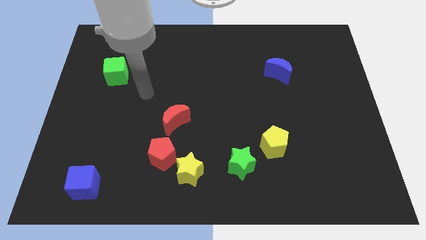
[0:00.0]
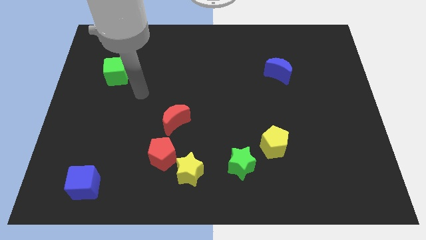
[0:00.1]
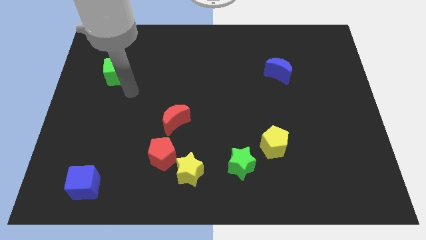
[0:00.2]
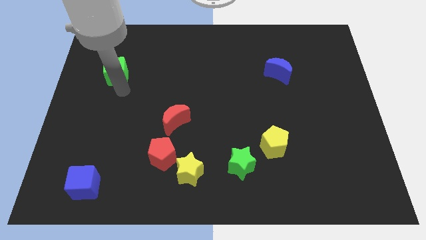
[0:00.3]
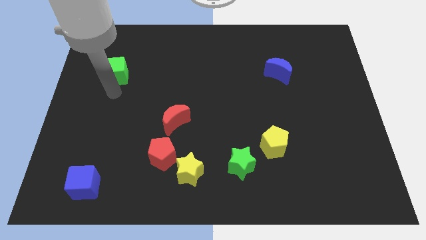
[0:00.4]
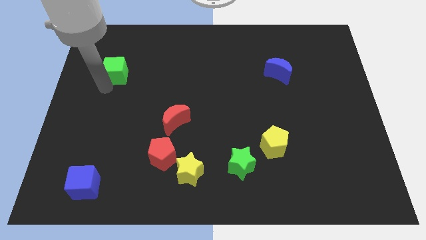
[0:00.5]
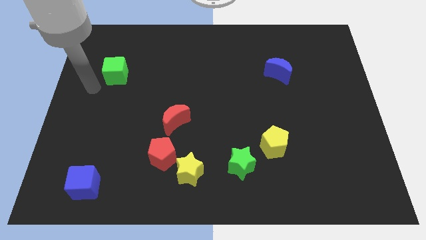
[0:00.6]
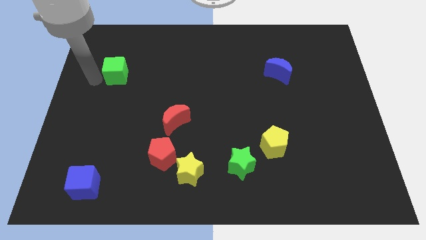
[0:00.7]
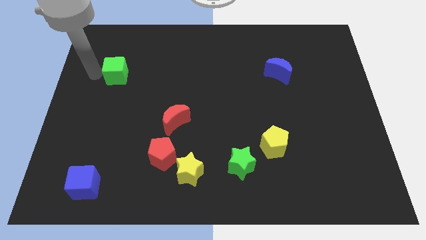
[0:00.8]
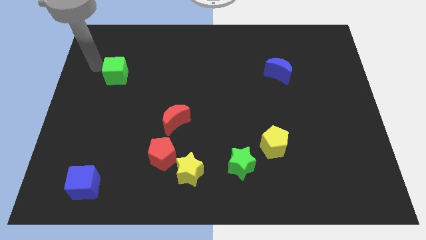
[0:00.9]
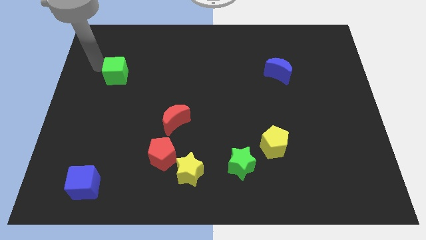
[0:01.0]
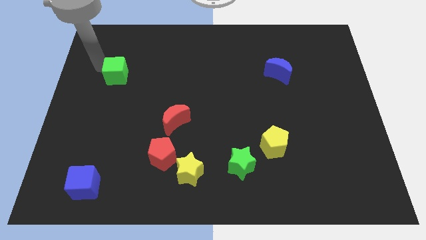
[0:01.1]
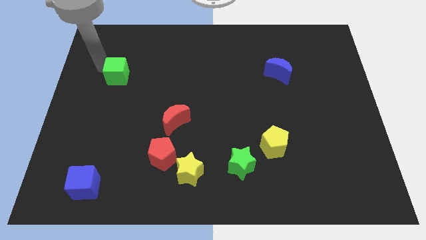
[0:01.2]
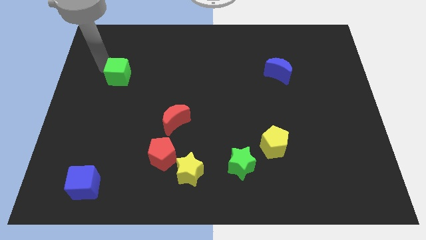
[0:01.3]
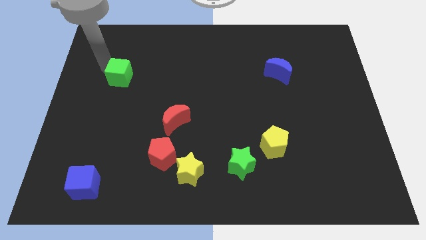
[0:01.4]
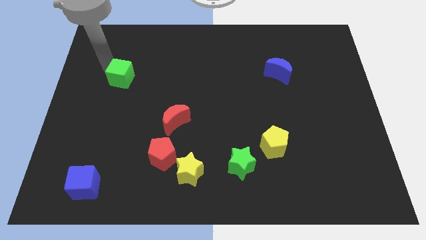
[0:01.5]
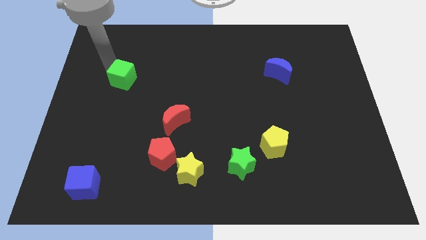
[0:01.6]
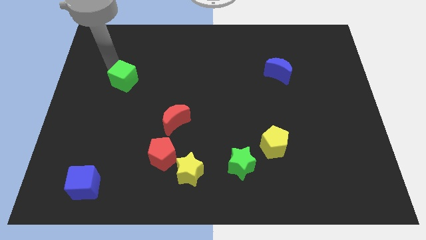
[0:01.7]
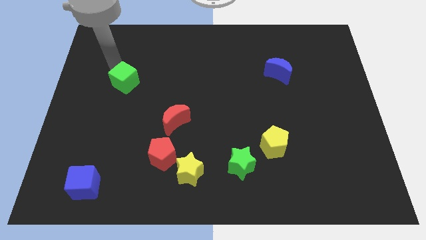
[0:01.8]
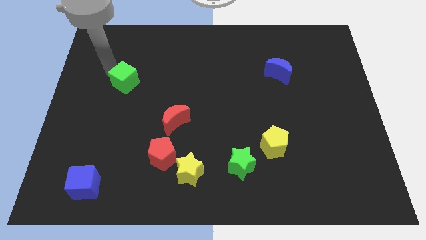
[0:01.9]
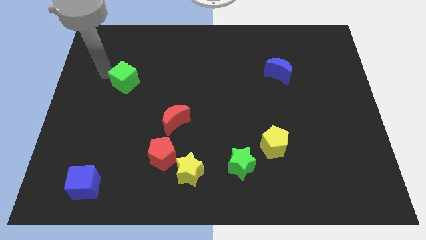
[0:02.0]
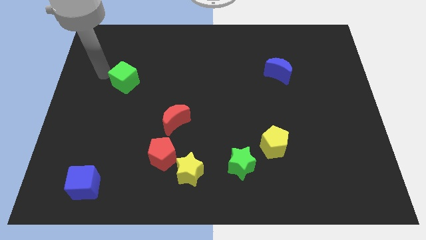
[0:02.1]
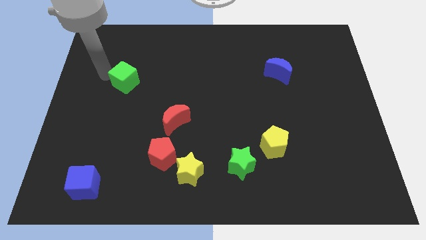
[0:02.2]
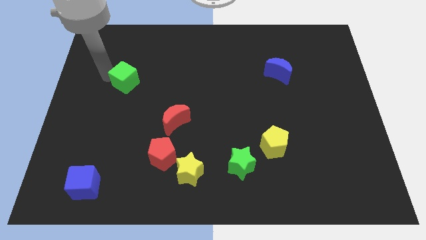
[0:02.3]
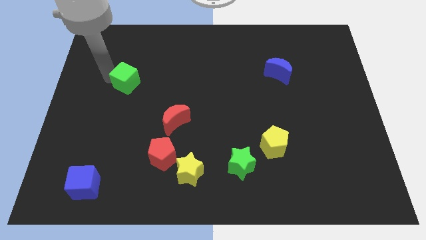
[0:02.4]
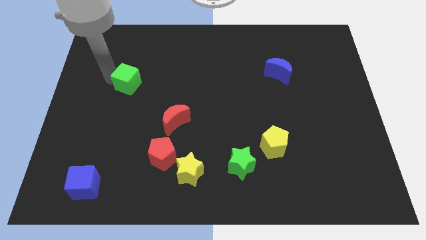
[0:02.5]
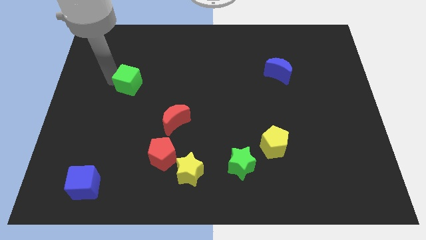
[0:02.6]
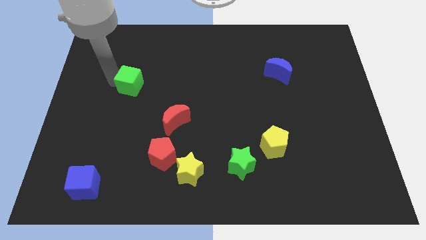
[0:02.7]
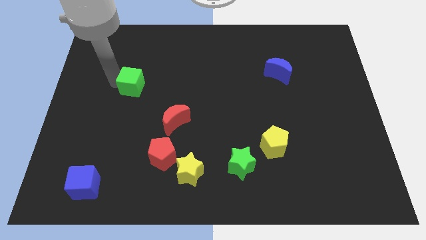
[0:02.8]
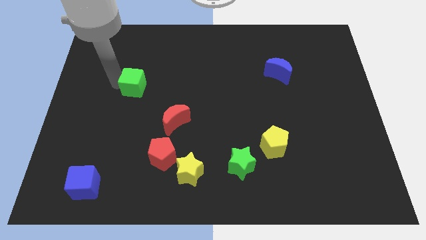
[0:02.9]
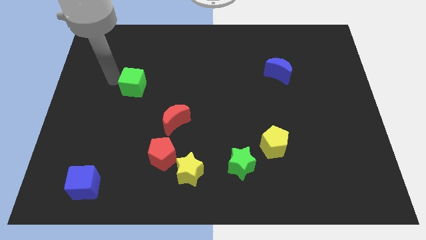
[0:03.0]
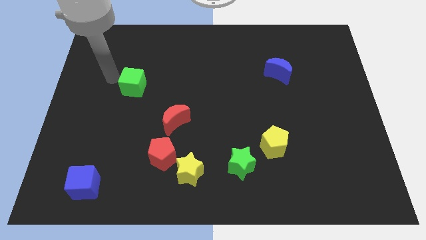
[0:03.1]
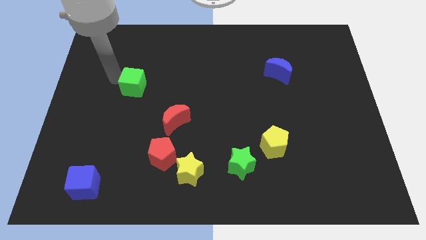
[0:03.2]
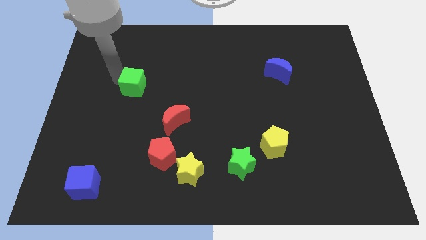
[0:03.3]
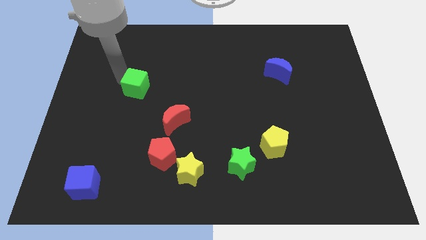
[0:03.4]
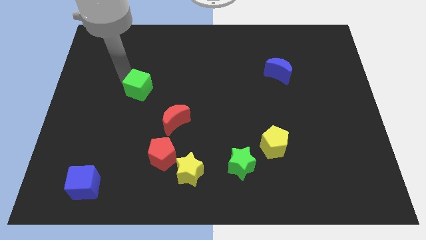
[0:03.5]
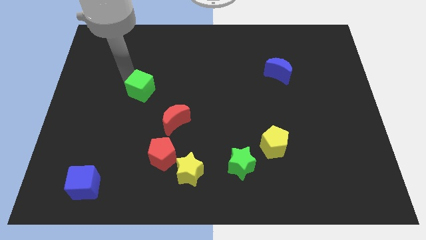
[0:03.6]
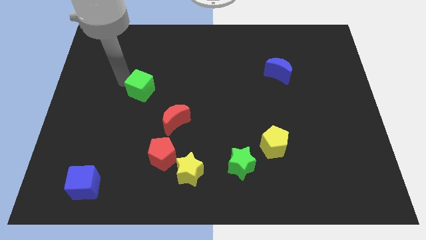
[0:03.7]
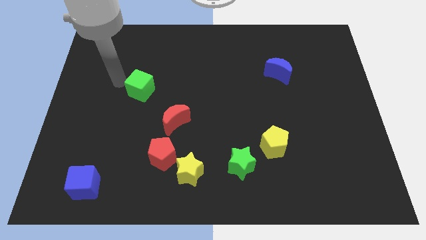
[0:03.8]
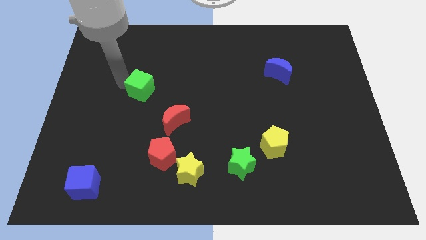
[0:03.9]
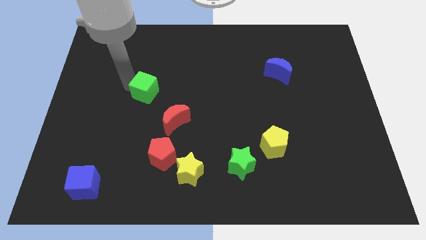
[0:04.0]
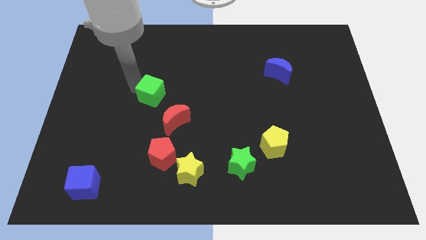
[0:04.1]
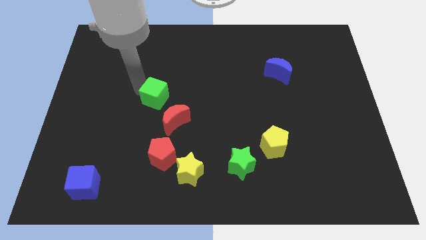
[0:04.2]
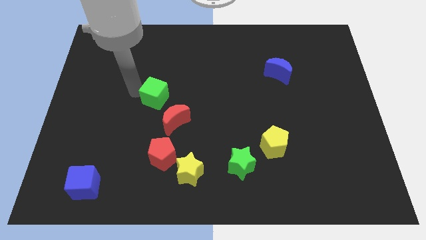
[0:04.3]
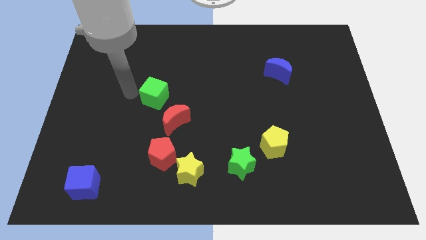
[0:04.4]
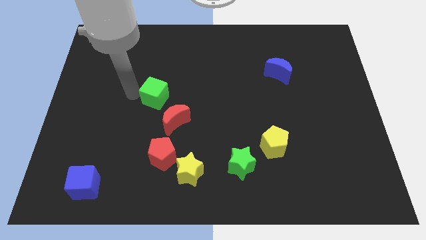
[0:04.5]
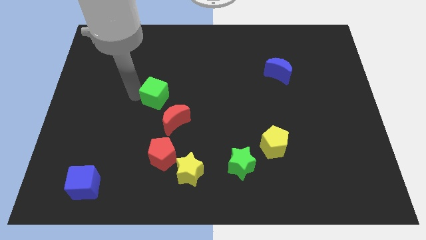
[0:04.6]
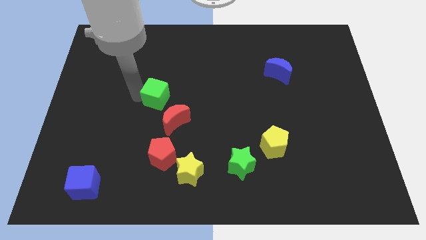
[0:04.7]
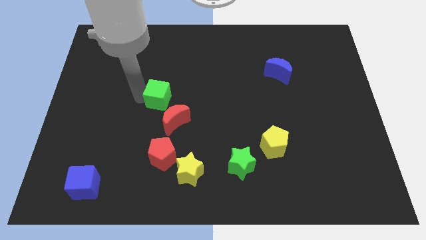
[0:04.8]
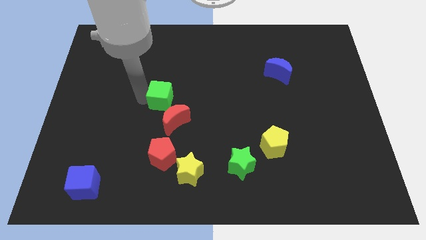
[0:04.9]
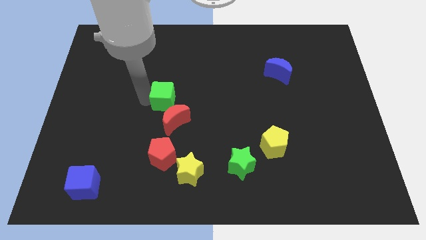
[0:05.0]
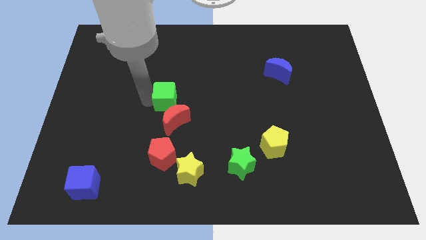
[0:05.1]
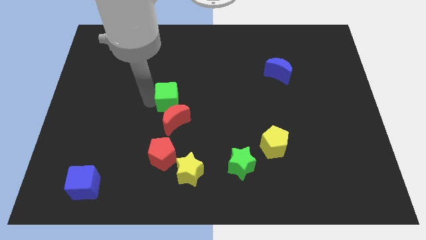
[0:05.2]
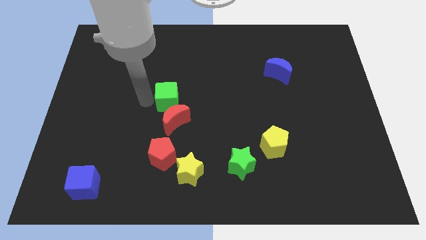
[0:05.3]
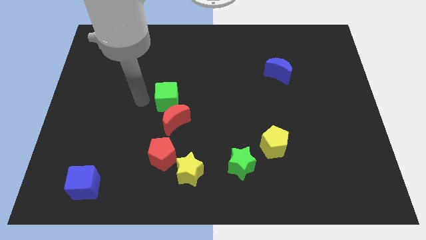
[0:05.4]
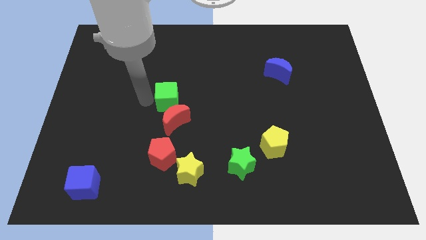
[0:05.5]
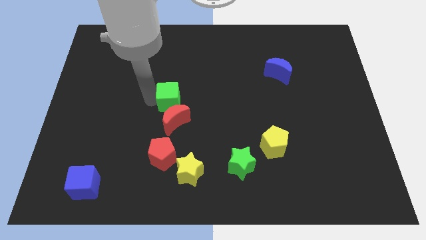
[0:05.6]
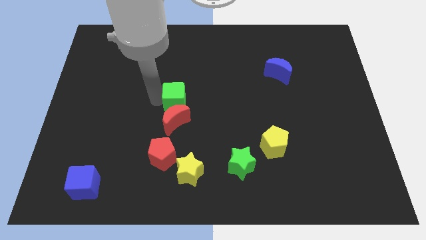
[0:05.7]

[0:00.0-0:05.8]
put the green cube diagonally up and to the right of the red moon

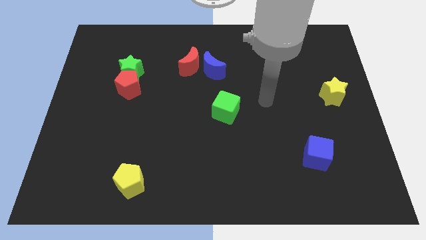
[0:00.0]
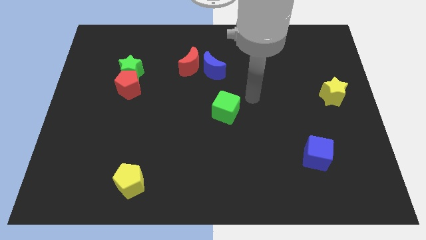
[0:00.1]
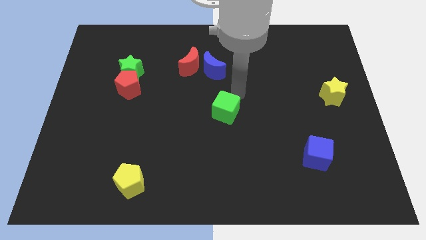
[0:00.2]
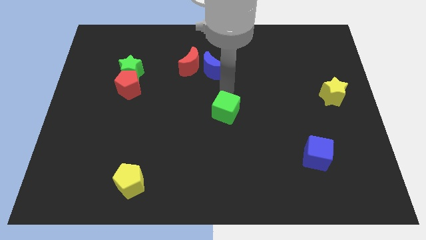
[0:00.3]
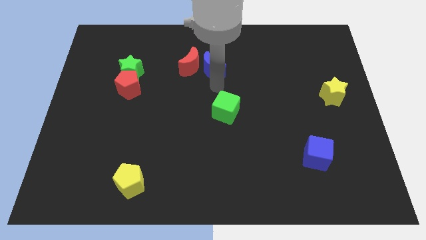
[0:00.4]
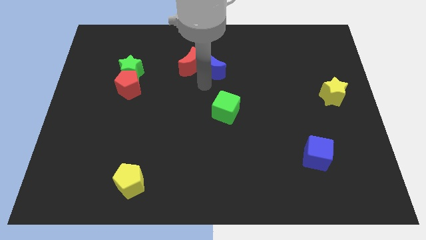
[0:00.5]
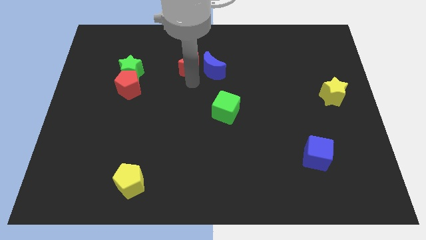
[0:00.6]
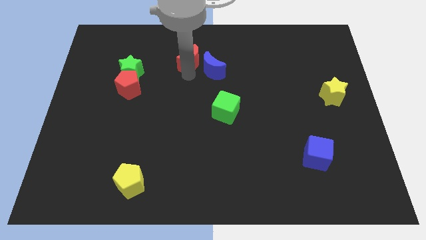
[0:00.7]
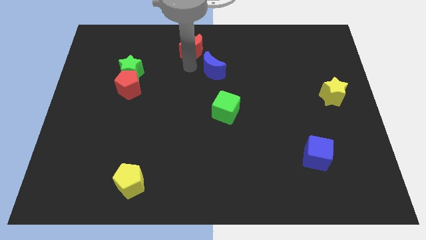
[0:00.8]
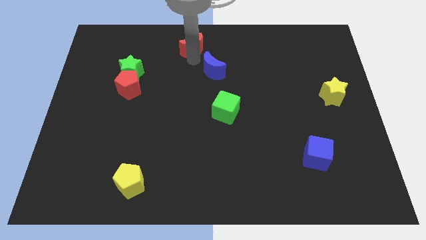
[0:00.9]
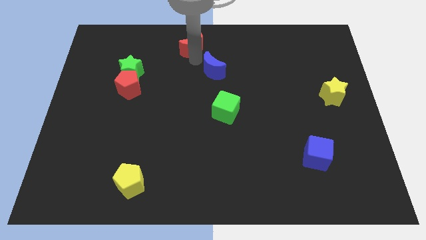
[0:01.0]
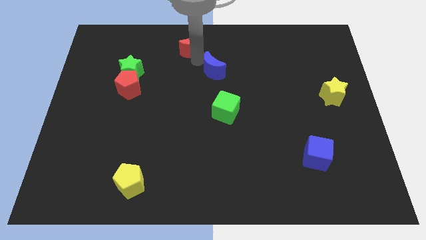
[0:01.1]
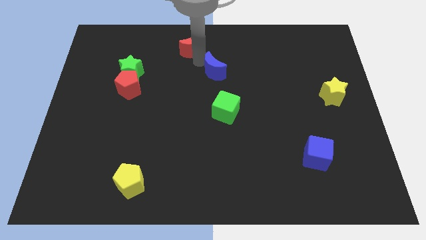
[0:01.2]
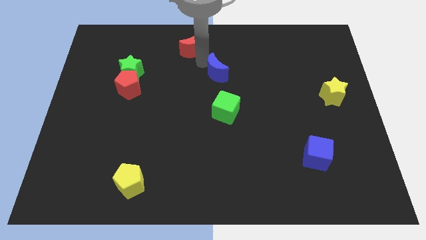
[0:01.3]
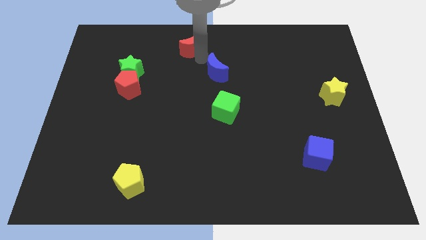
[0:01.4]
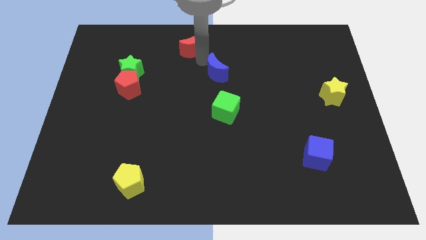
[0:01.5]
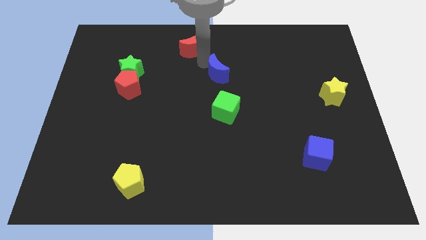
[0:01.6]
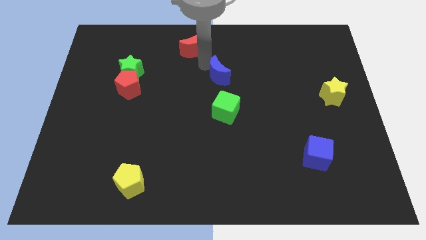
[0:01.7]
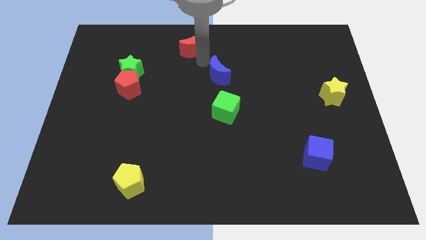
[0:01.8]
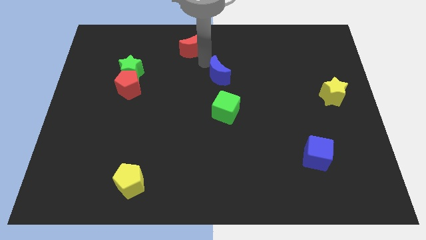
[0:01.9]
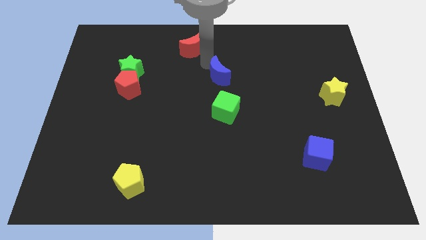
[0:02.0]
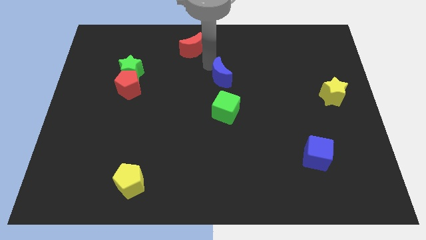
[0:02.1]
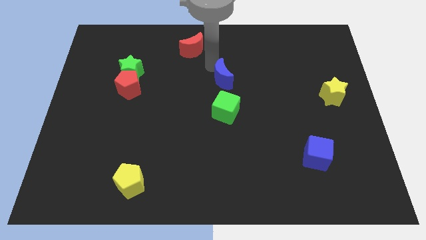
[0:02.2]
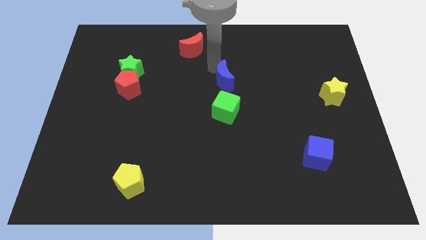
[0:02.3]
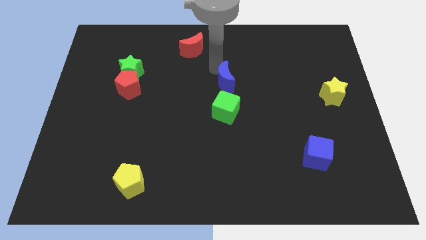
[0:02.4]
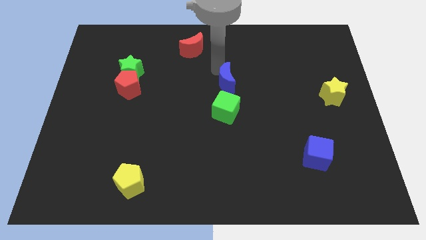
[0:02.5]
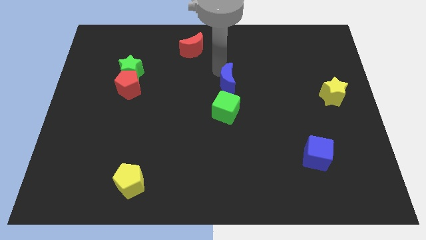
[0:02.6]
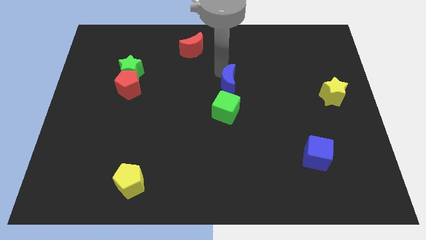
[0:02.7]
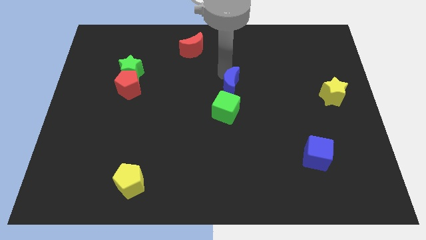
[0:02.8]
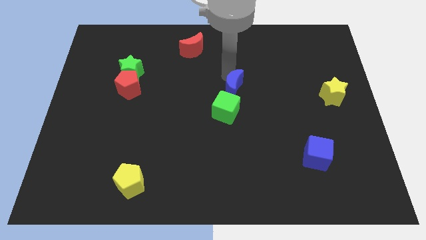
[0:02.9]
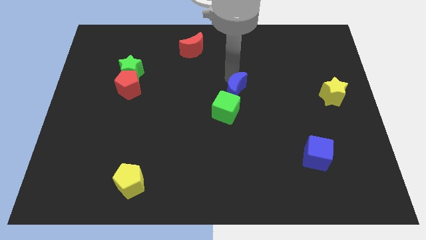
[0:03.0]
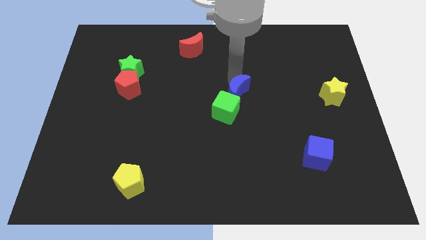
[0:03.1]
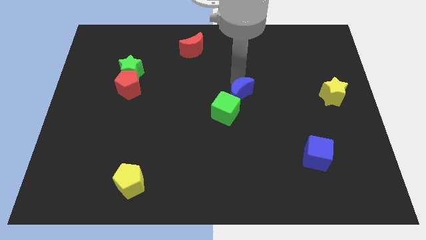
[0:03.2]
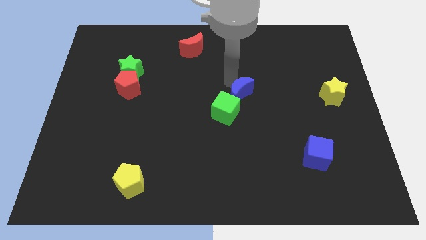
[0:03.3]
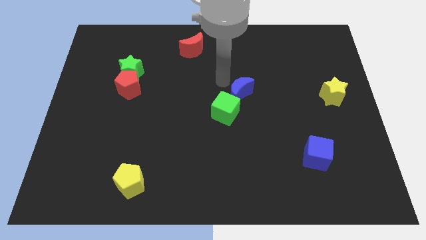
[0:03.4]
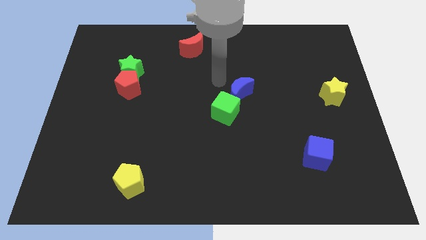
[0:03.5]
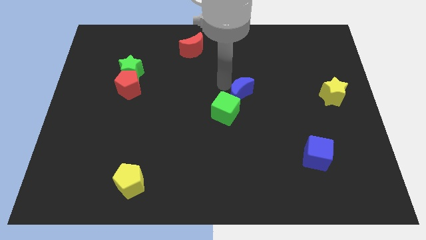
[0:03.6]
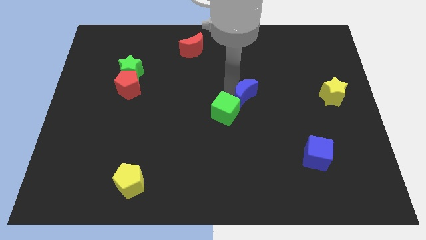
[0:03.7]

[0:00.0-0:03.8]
slide the blue moon just right of the green cube
